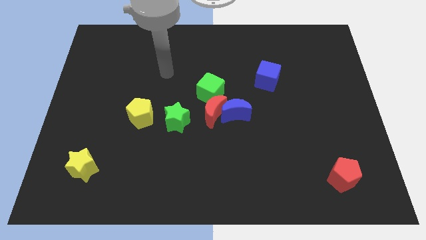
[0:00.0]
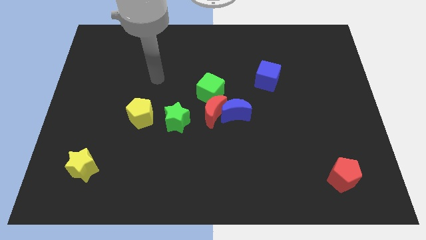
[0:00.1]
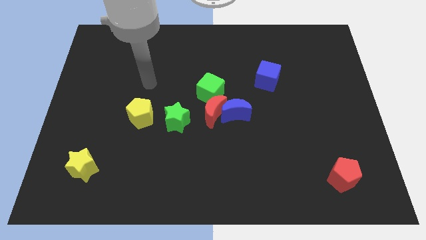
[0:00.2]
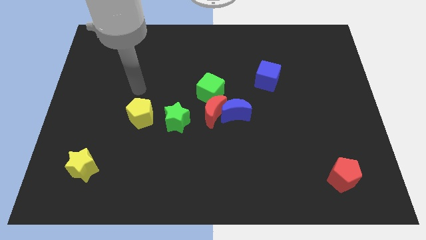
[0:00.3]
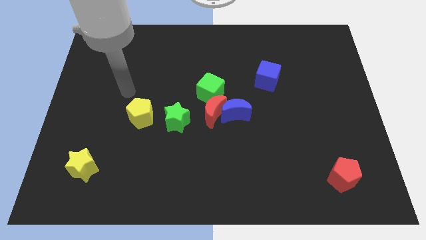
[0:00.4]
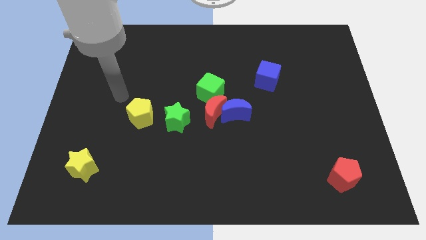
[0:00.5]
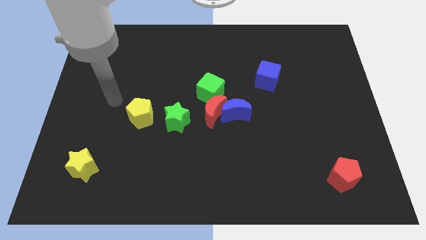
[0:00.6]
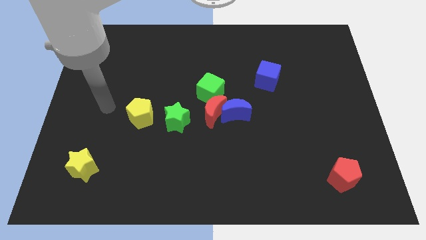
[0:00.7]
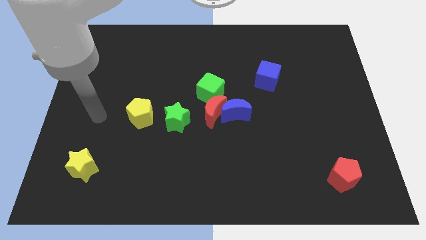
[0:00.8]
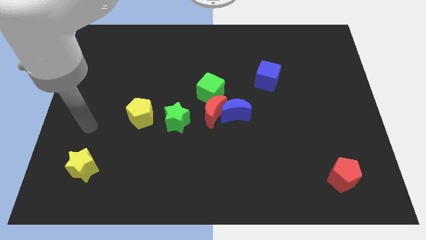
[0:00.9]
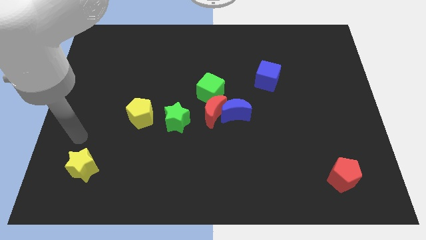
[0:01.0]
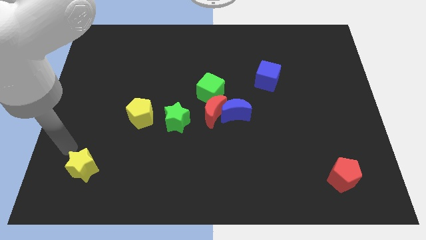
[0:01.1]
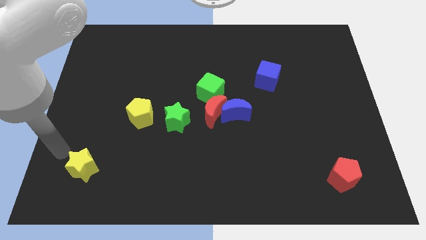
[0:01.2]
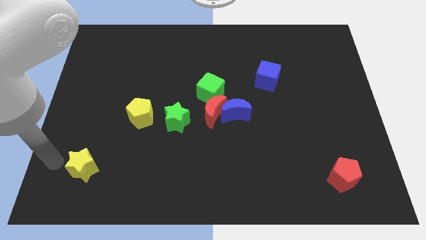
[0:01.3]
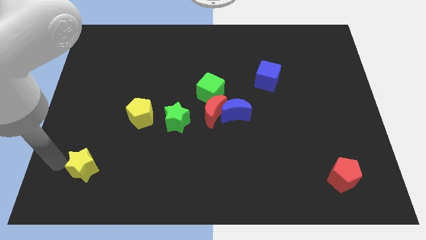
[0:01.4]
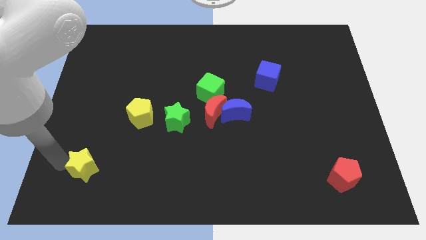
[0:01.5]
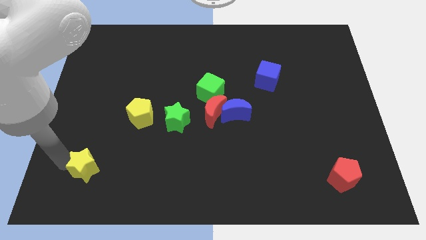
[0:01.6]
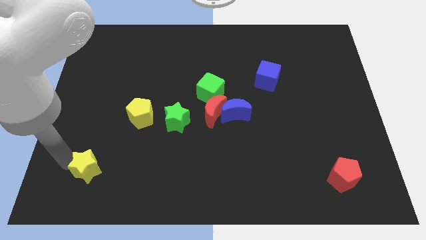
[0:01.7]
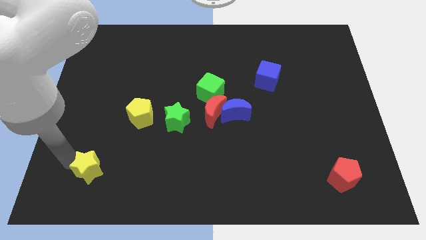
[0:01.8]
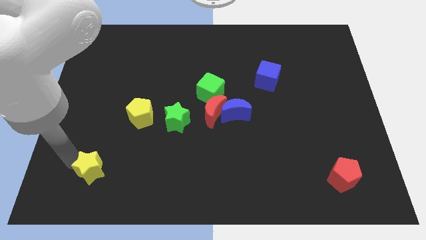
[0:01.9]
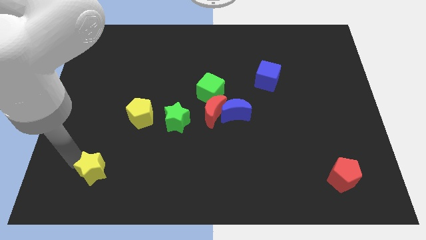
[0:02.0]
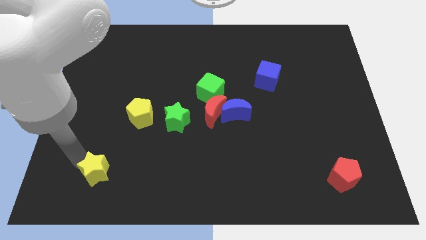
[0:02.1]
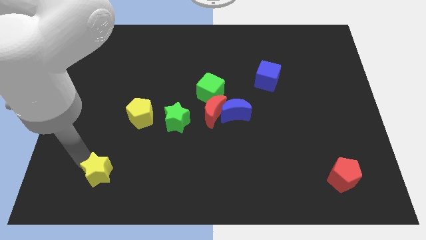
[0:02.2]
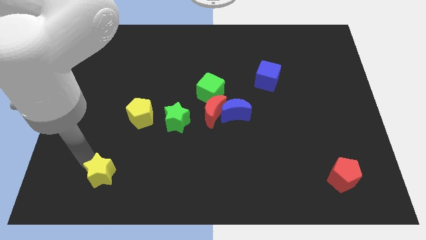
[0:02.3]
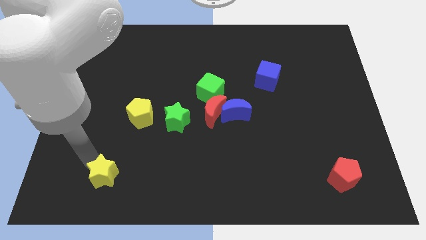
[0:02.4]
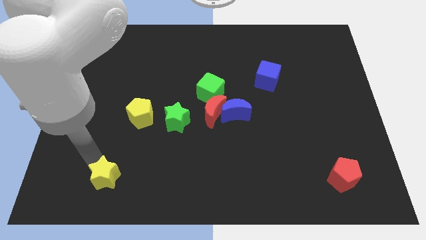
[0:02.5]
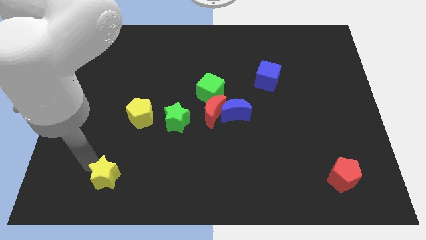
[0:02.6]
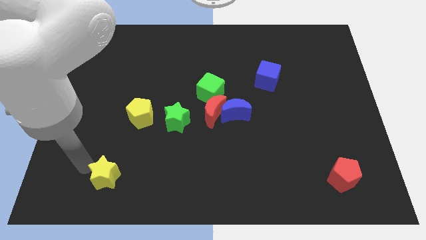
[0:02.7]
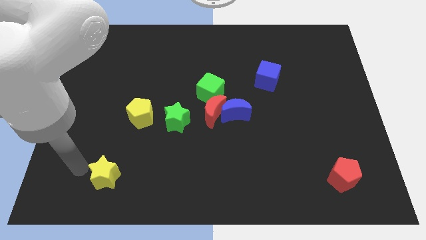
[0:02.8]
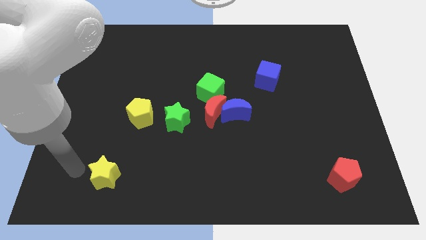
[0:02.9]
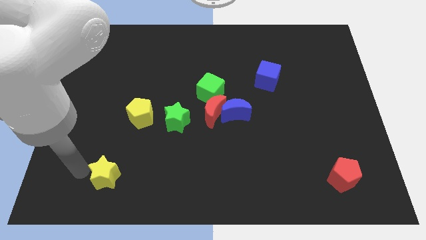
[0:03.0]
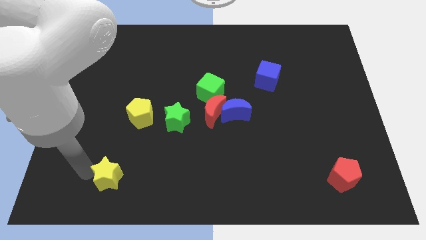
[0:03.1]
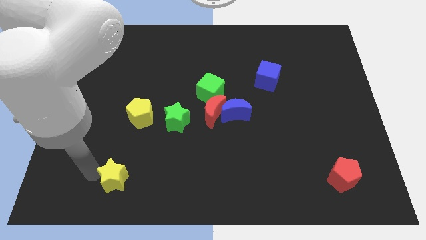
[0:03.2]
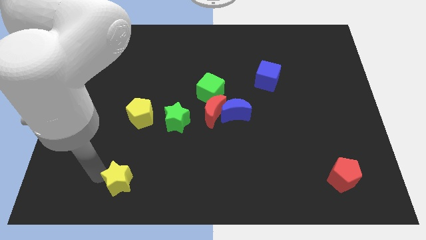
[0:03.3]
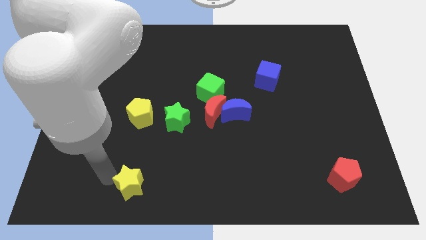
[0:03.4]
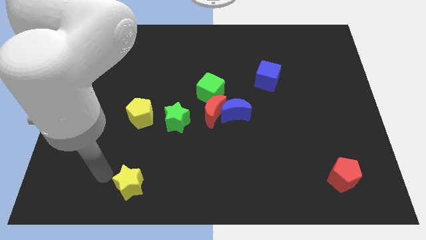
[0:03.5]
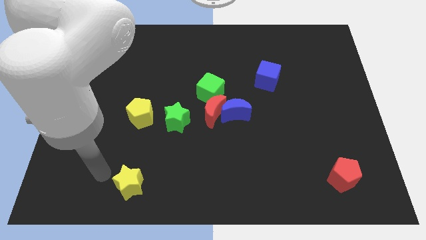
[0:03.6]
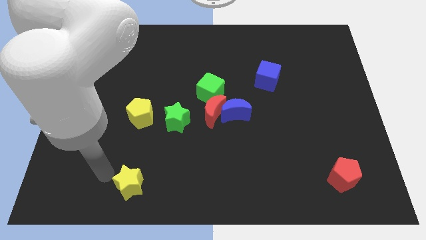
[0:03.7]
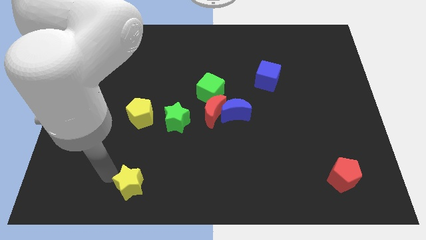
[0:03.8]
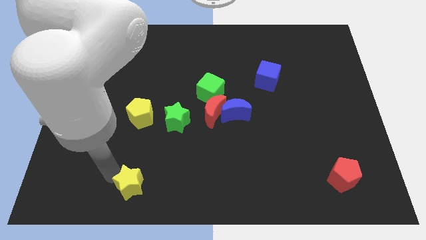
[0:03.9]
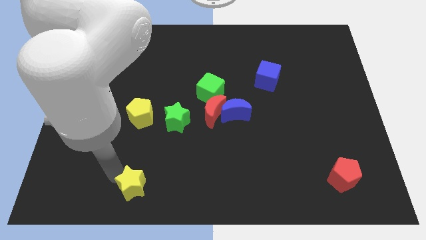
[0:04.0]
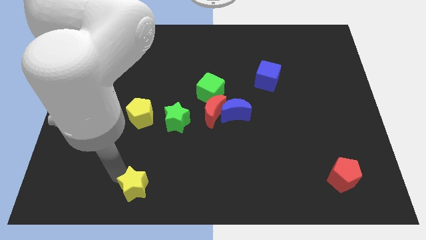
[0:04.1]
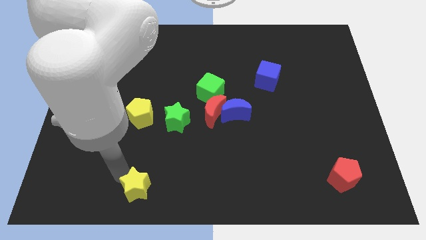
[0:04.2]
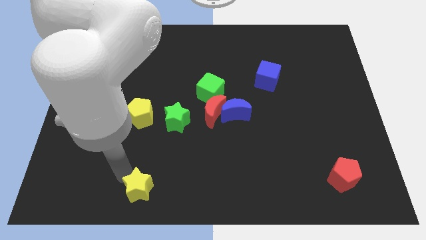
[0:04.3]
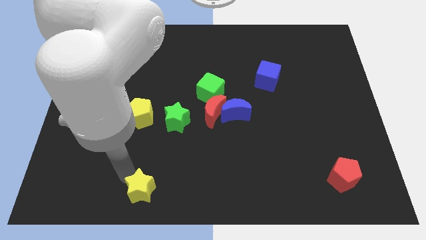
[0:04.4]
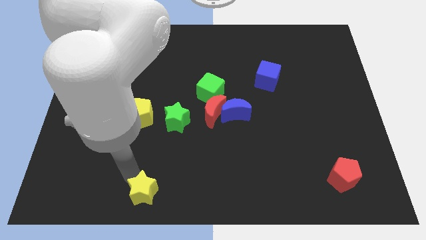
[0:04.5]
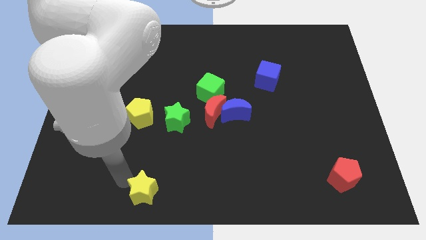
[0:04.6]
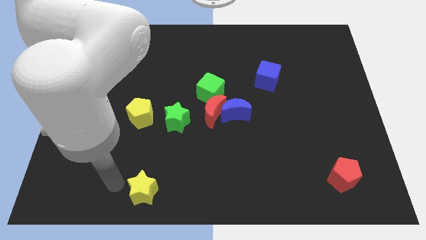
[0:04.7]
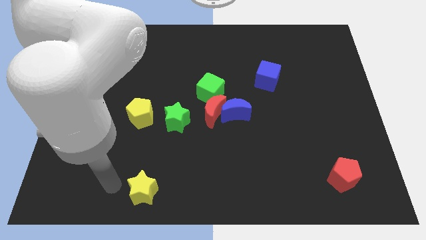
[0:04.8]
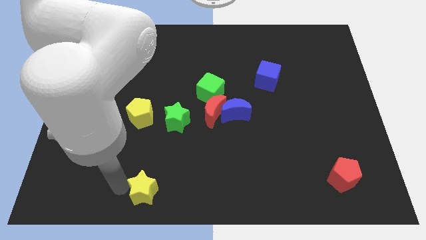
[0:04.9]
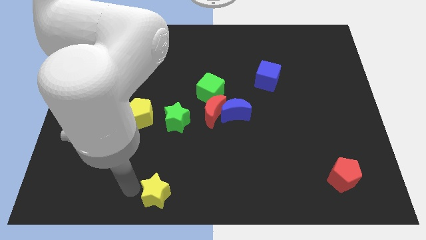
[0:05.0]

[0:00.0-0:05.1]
slide the yellow star to the bottom

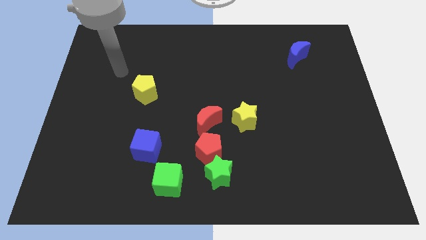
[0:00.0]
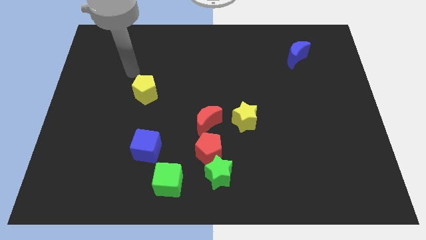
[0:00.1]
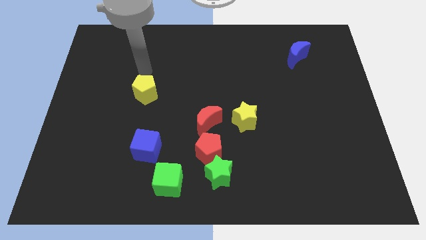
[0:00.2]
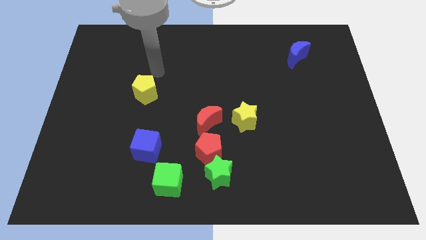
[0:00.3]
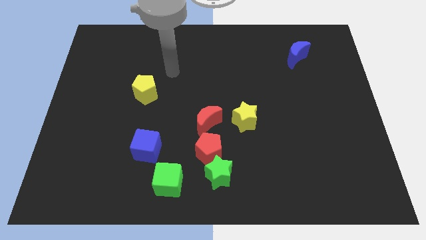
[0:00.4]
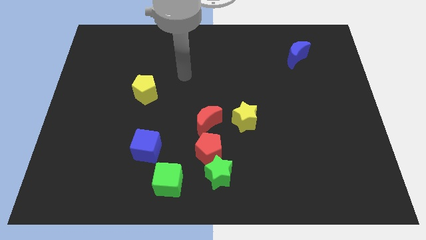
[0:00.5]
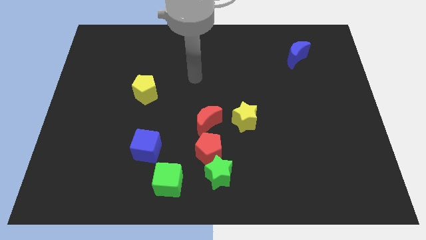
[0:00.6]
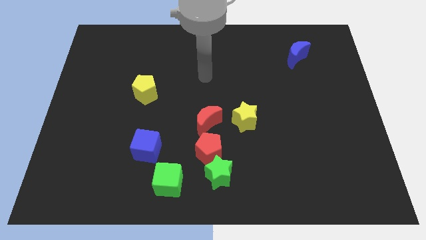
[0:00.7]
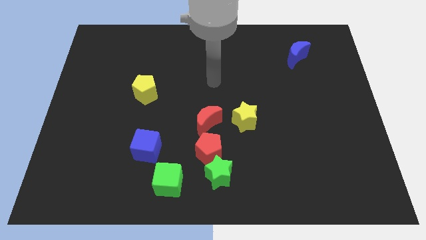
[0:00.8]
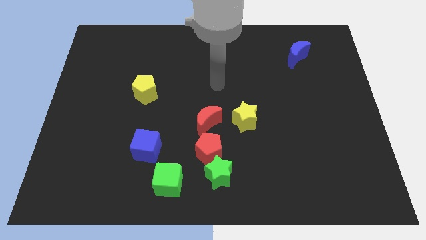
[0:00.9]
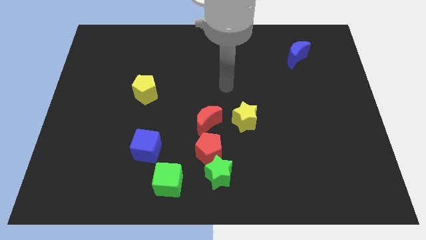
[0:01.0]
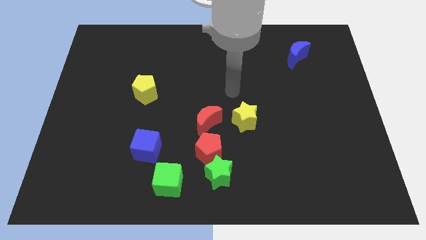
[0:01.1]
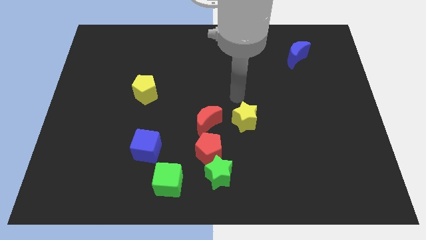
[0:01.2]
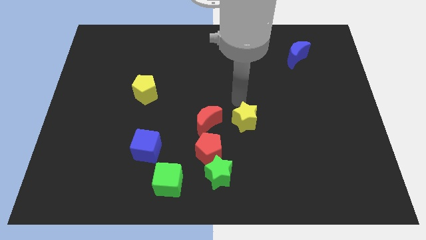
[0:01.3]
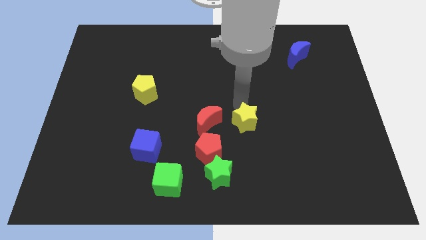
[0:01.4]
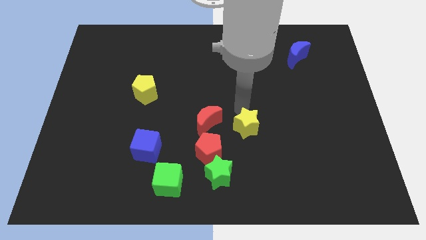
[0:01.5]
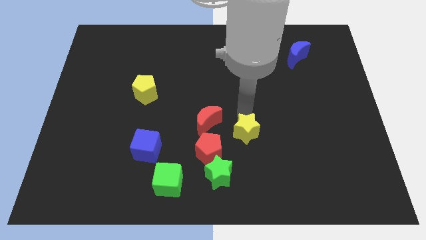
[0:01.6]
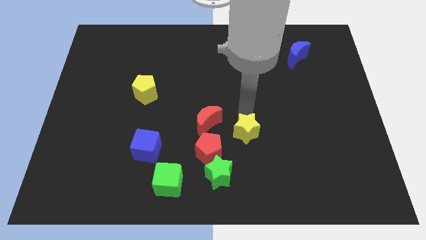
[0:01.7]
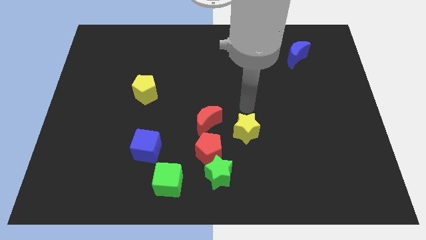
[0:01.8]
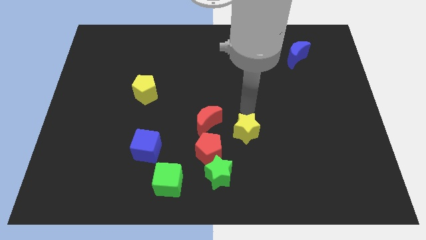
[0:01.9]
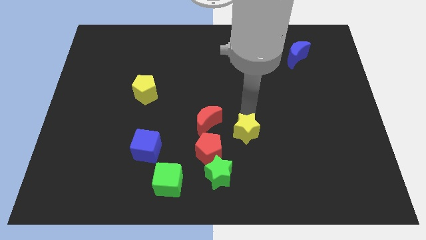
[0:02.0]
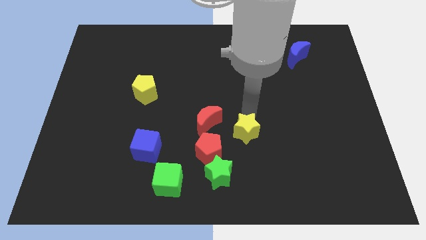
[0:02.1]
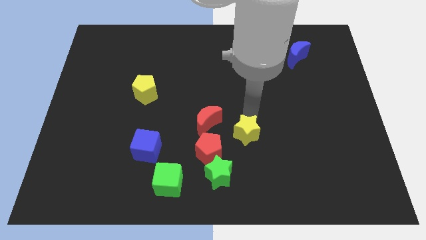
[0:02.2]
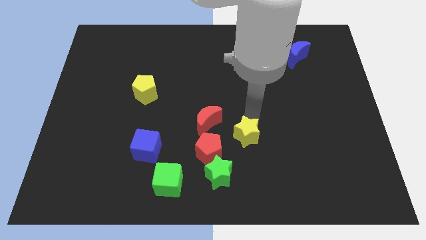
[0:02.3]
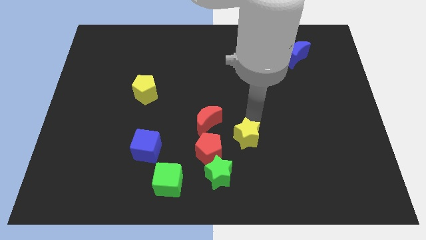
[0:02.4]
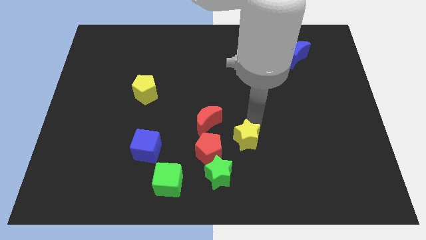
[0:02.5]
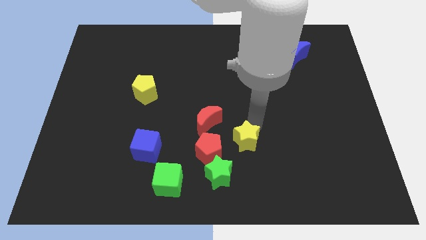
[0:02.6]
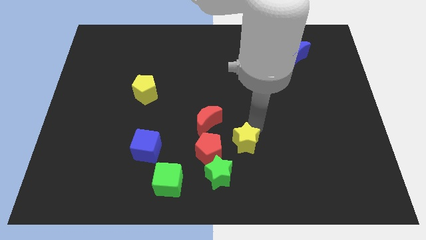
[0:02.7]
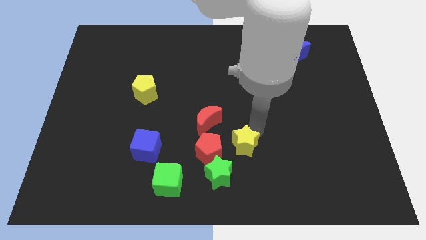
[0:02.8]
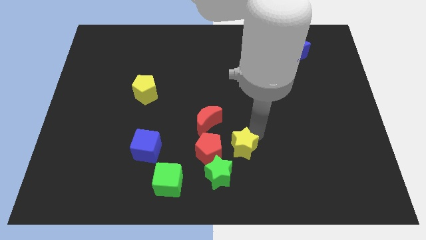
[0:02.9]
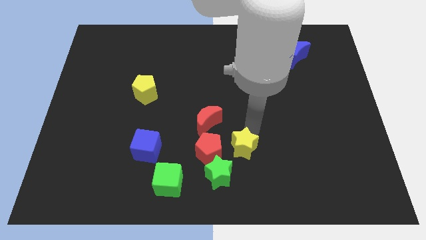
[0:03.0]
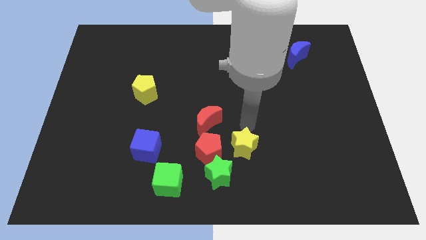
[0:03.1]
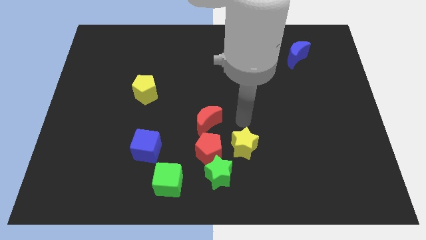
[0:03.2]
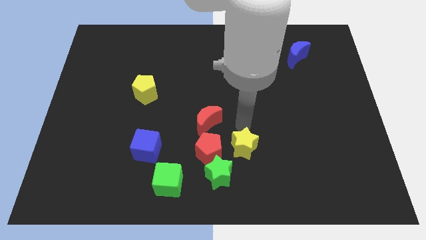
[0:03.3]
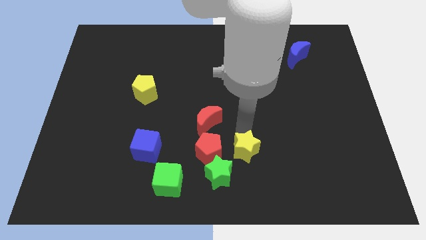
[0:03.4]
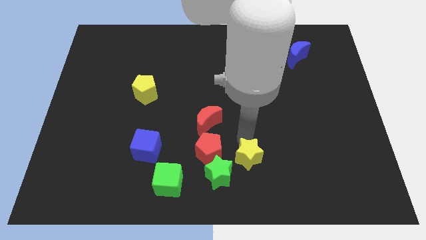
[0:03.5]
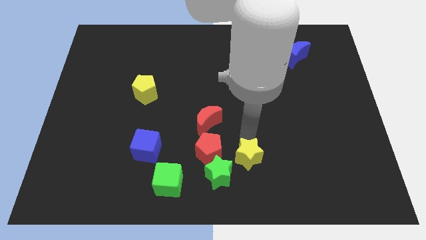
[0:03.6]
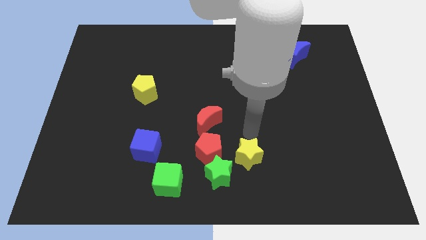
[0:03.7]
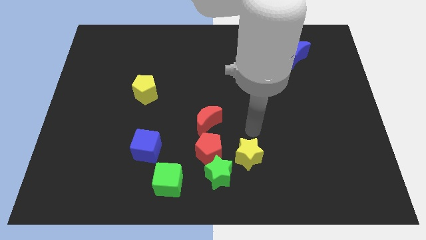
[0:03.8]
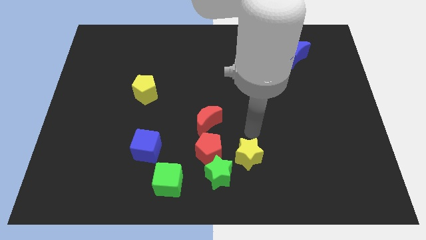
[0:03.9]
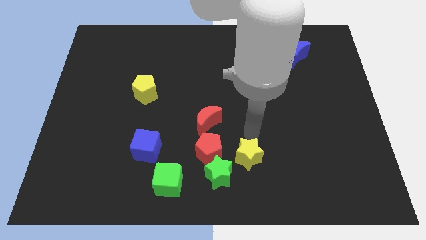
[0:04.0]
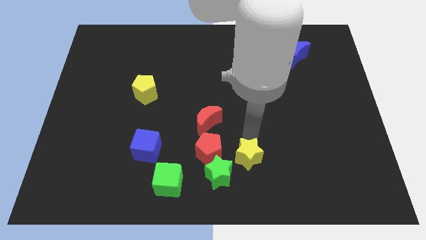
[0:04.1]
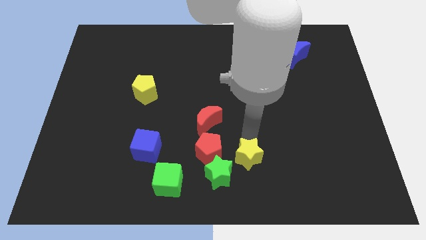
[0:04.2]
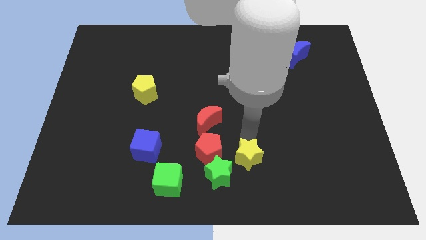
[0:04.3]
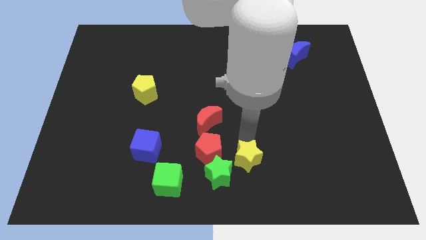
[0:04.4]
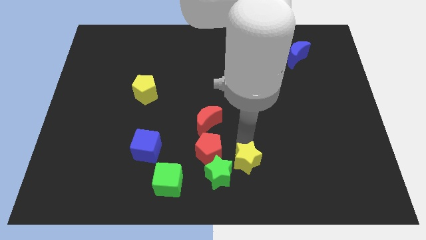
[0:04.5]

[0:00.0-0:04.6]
slide the yellow star to the bottom side
